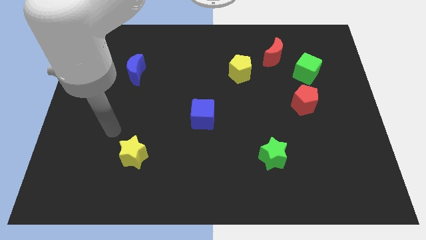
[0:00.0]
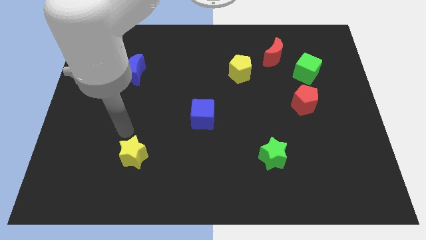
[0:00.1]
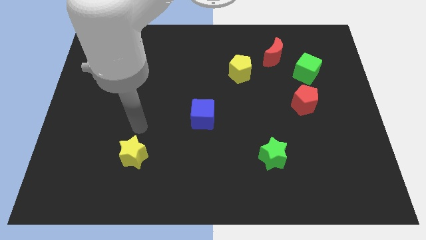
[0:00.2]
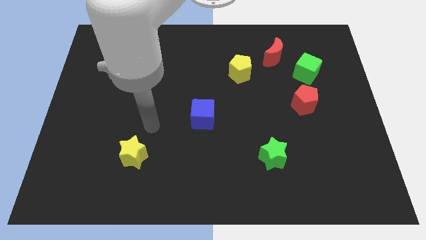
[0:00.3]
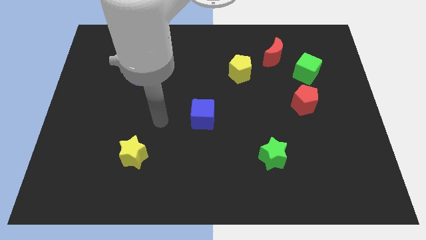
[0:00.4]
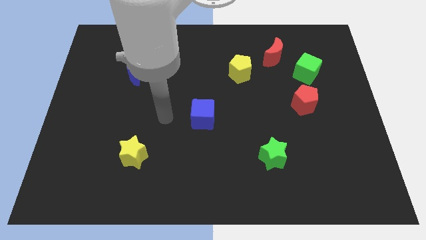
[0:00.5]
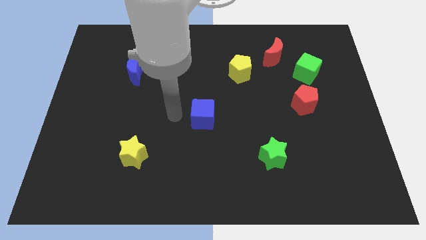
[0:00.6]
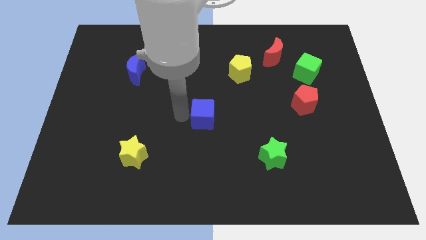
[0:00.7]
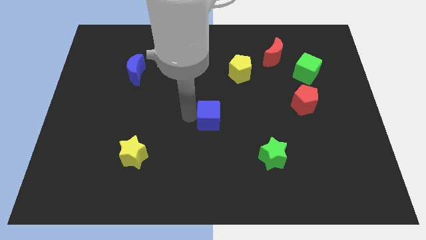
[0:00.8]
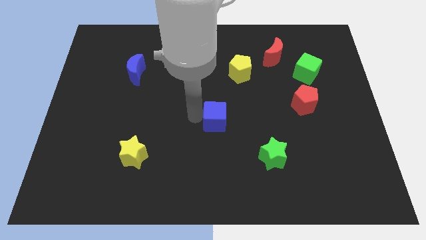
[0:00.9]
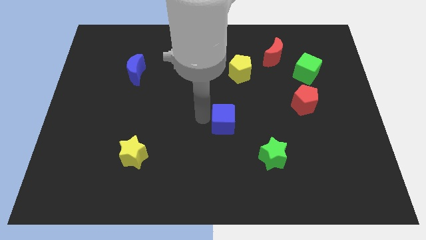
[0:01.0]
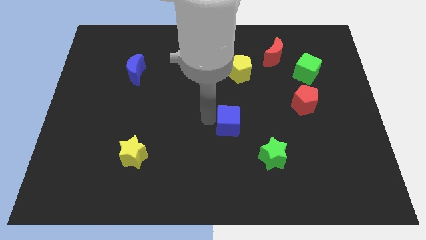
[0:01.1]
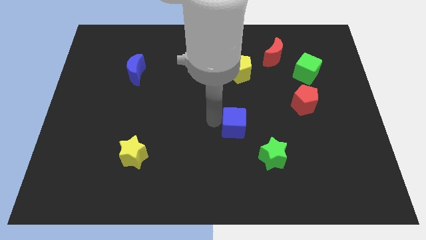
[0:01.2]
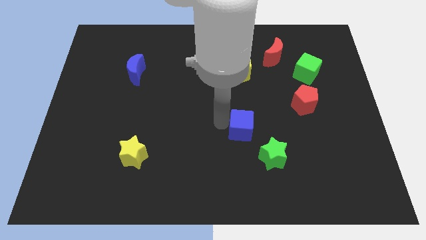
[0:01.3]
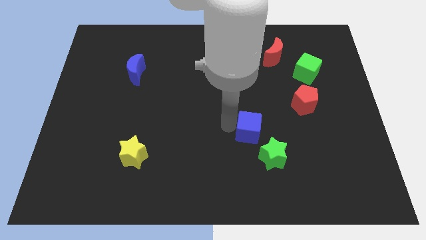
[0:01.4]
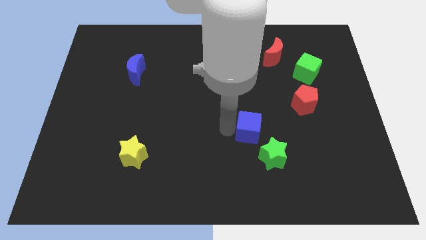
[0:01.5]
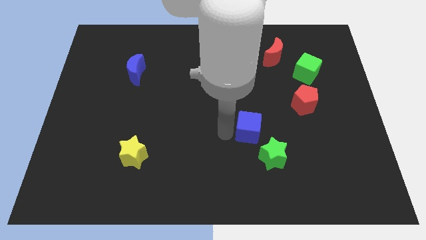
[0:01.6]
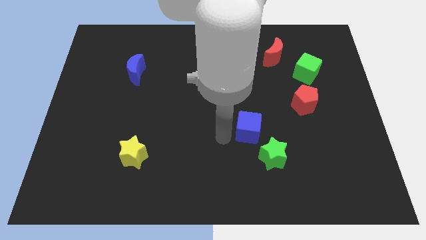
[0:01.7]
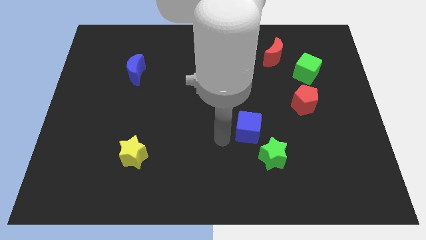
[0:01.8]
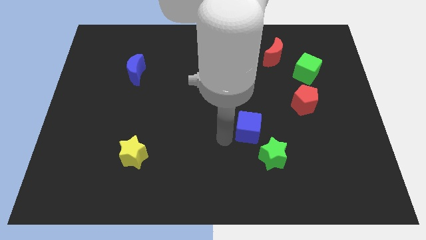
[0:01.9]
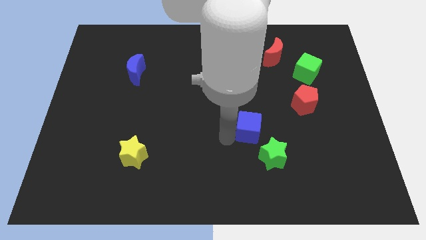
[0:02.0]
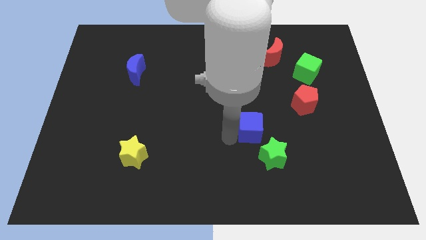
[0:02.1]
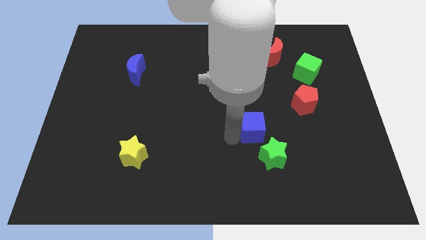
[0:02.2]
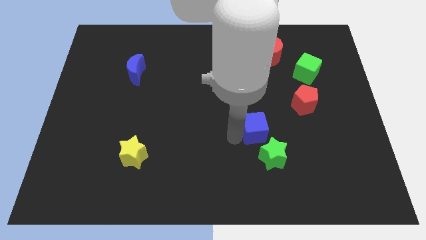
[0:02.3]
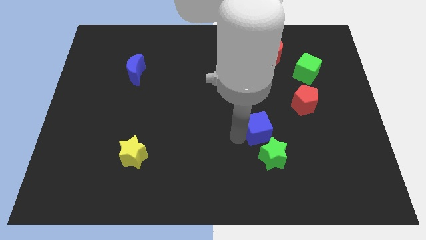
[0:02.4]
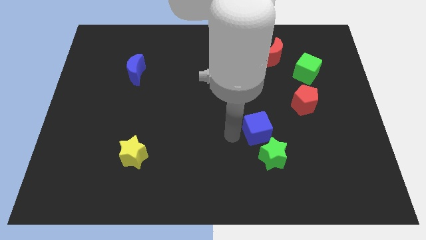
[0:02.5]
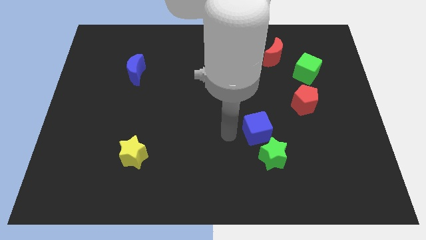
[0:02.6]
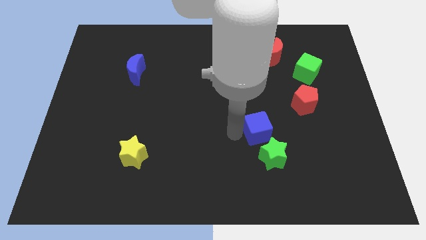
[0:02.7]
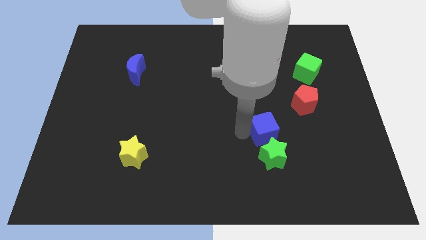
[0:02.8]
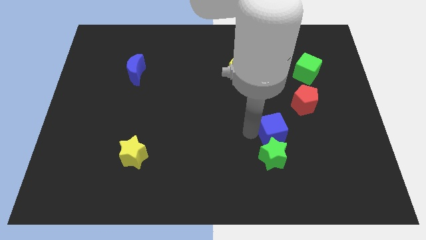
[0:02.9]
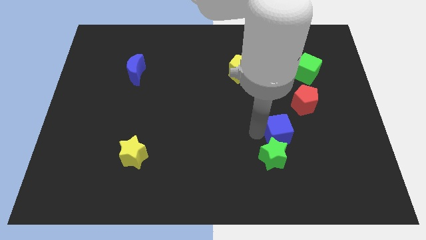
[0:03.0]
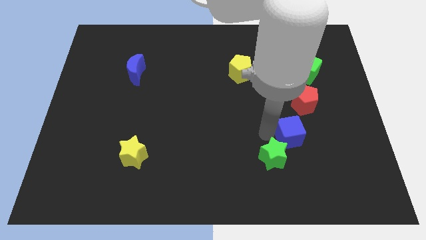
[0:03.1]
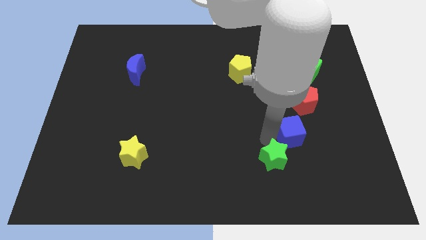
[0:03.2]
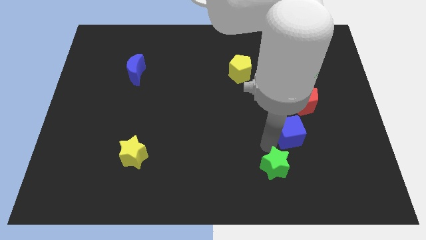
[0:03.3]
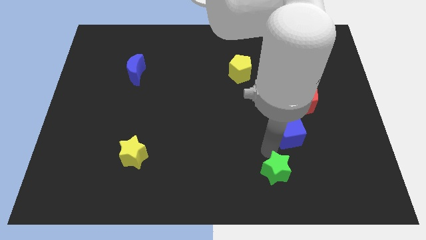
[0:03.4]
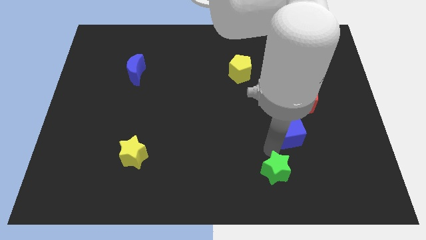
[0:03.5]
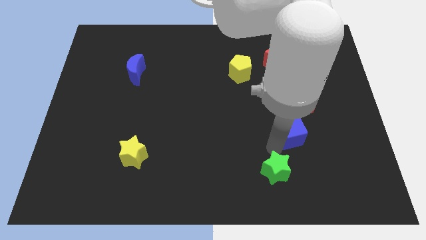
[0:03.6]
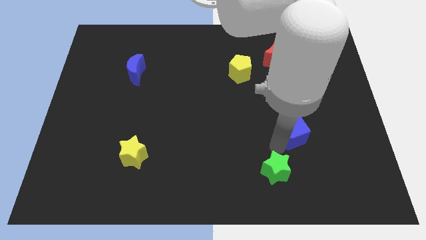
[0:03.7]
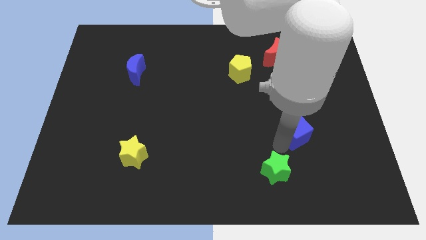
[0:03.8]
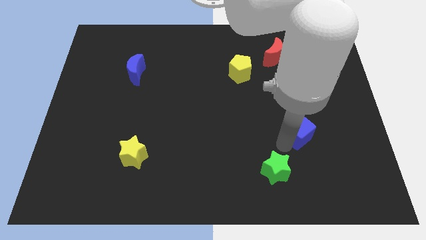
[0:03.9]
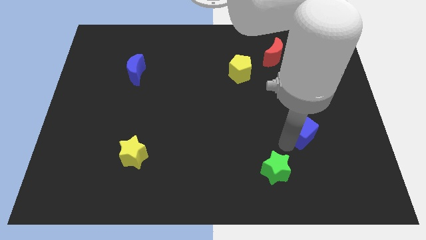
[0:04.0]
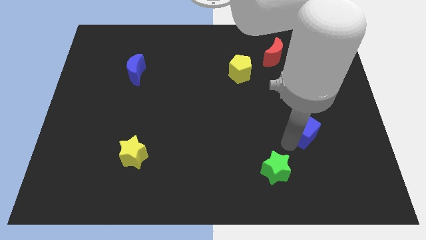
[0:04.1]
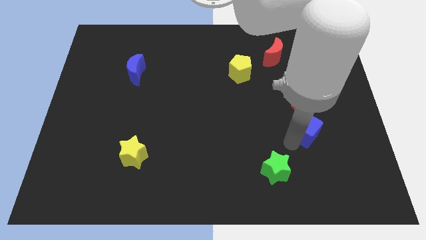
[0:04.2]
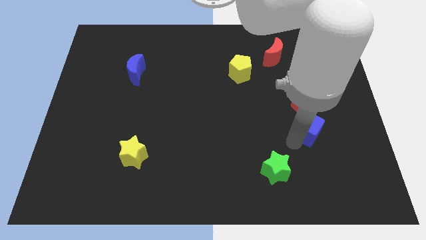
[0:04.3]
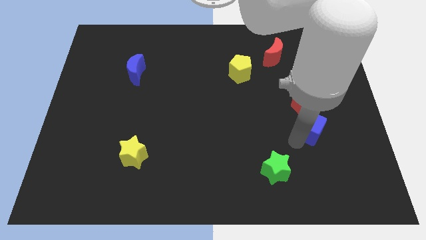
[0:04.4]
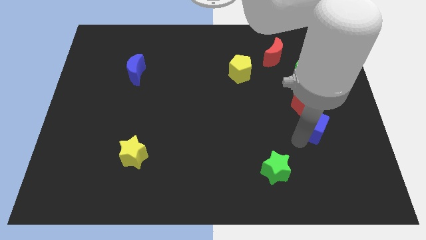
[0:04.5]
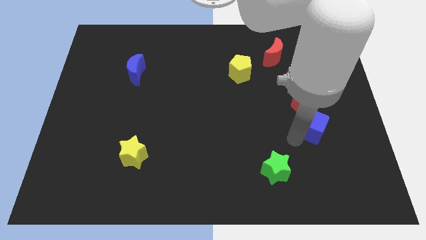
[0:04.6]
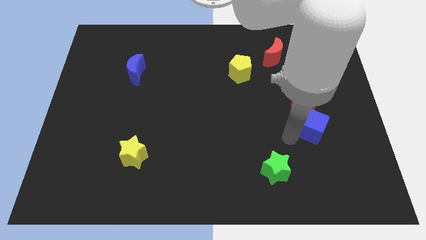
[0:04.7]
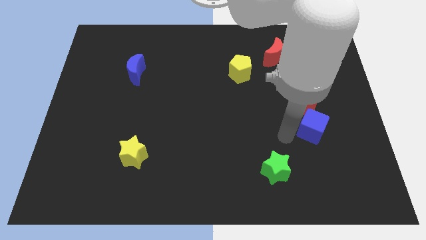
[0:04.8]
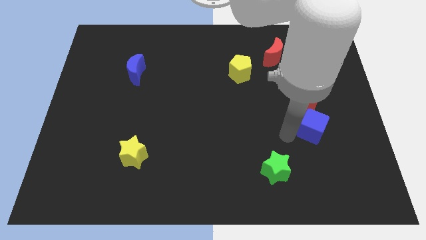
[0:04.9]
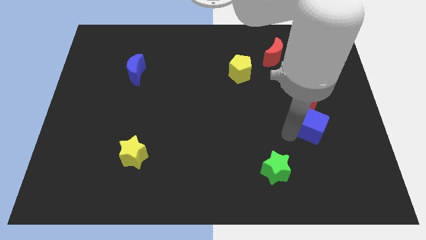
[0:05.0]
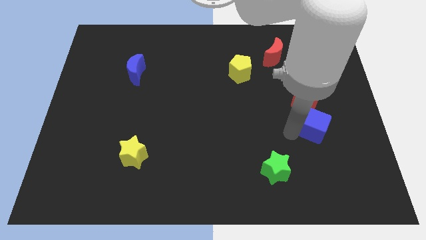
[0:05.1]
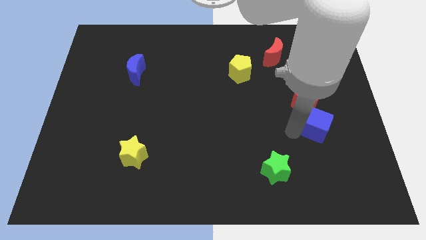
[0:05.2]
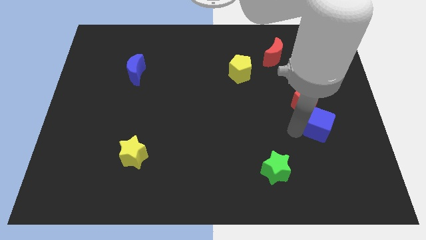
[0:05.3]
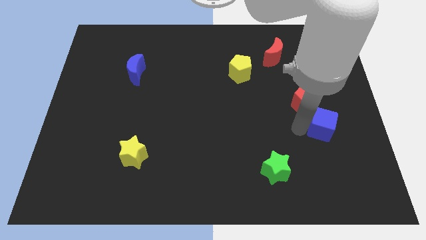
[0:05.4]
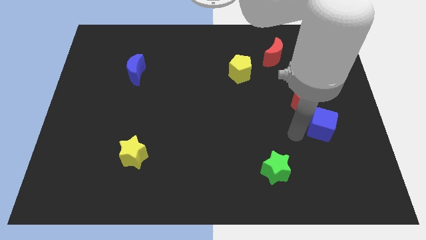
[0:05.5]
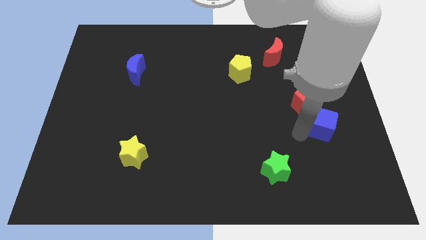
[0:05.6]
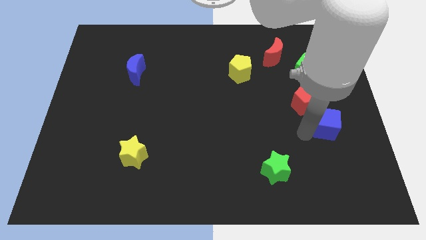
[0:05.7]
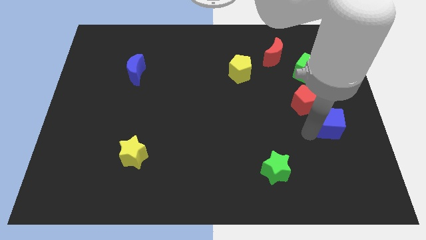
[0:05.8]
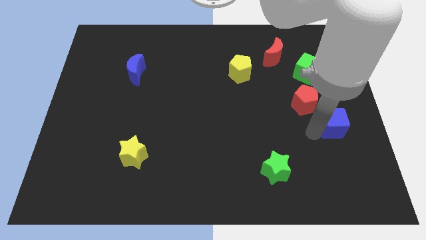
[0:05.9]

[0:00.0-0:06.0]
push the blue cube to the right side

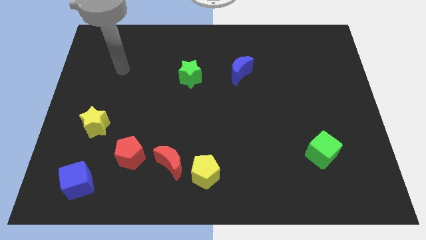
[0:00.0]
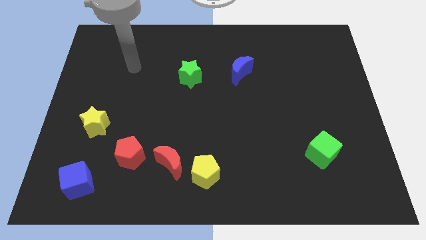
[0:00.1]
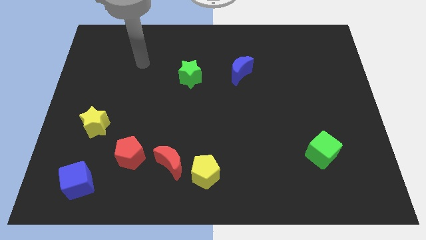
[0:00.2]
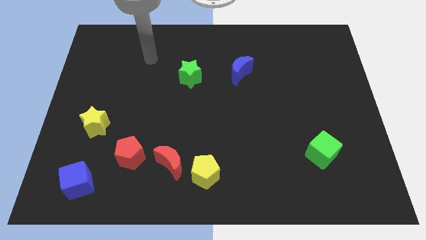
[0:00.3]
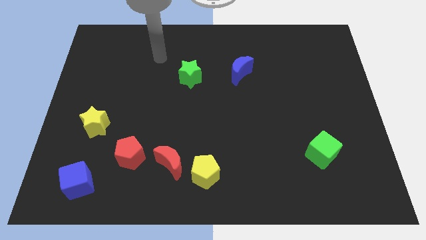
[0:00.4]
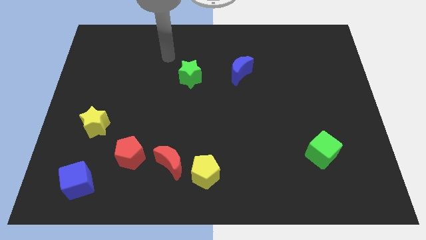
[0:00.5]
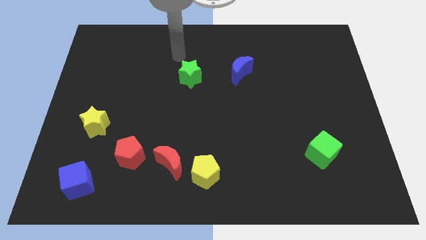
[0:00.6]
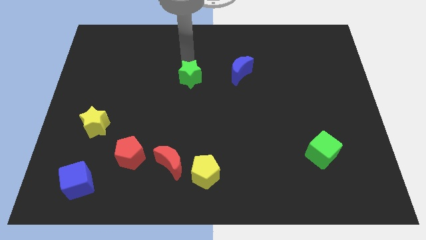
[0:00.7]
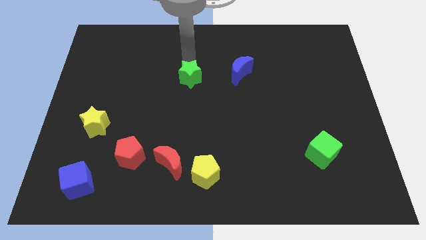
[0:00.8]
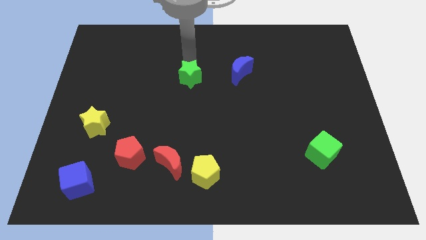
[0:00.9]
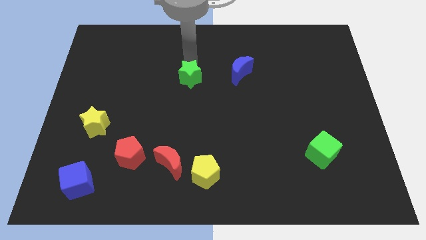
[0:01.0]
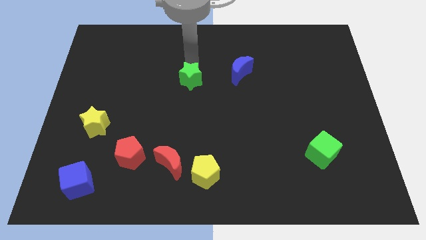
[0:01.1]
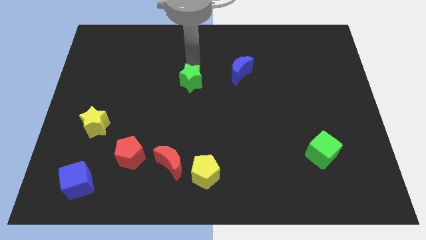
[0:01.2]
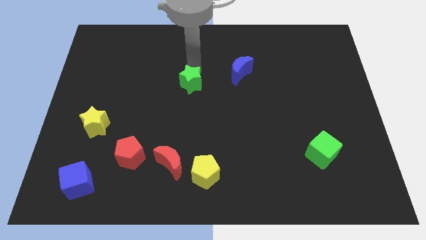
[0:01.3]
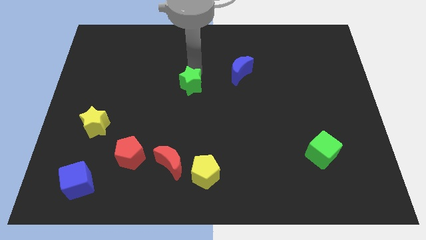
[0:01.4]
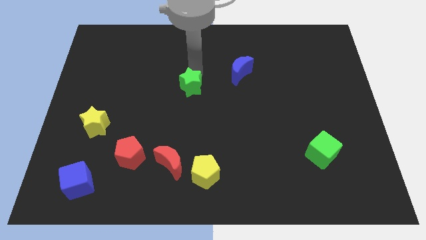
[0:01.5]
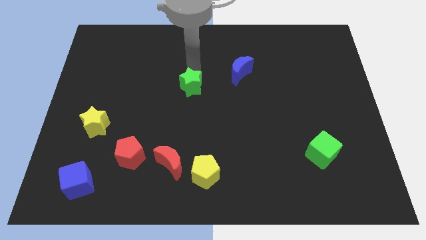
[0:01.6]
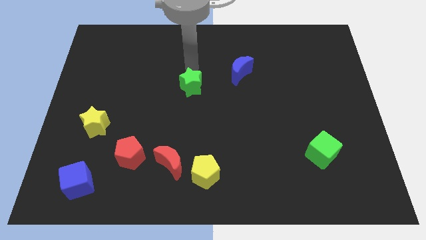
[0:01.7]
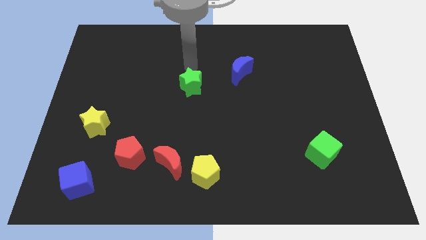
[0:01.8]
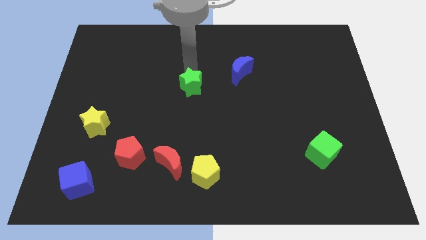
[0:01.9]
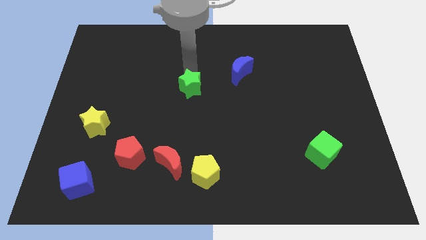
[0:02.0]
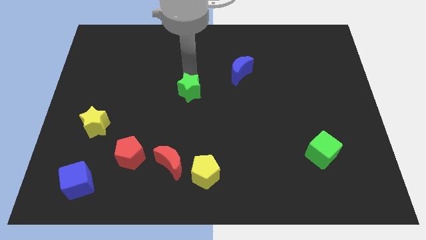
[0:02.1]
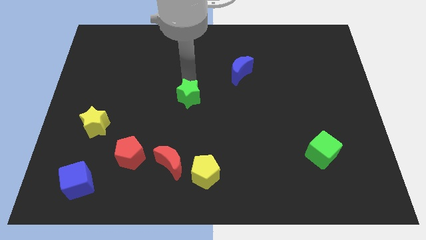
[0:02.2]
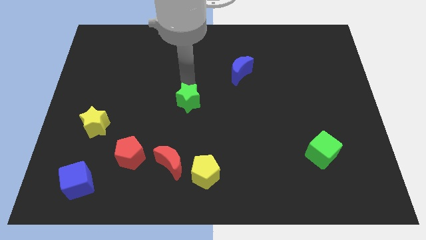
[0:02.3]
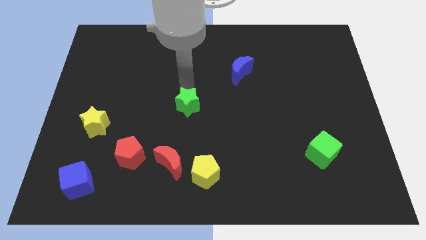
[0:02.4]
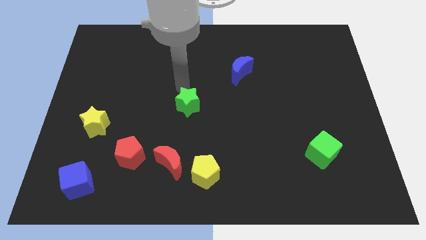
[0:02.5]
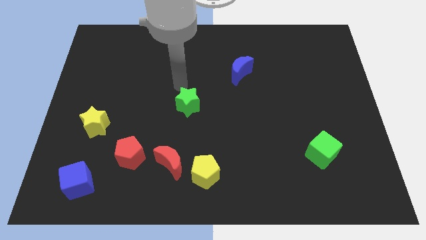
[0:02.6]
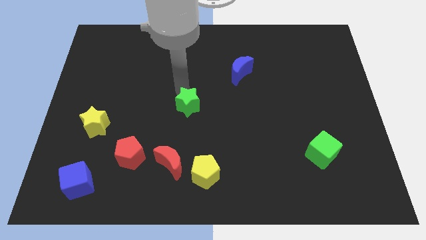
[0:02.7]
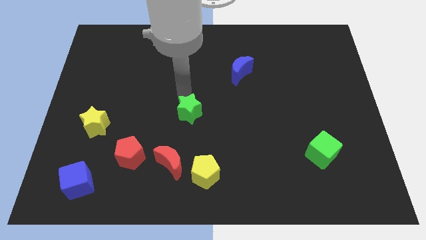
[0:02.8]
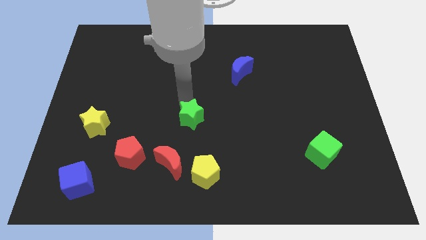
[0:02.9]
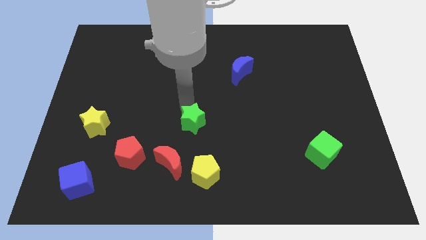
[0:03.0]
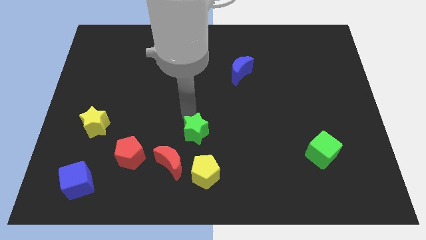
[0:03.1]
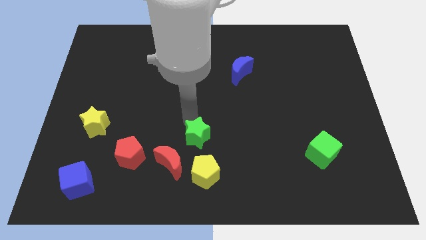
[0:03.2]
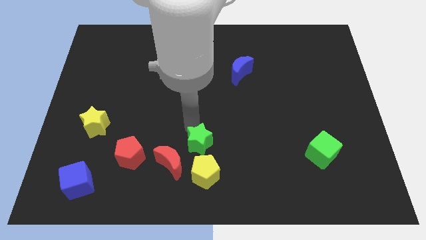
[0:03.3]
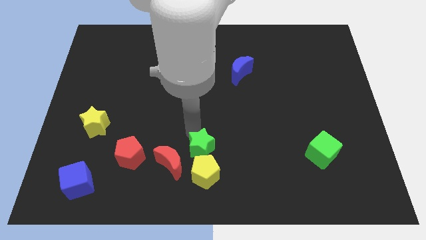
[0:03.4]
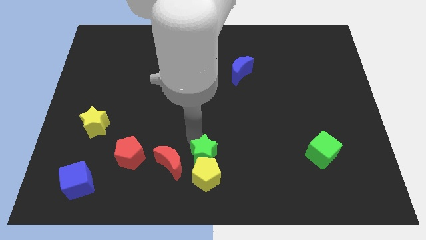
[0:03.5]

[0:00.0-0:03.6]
slide the green star to the bottom
